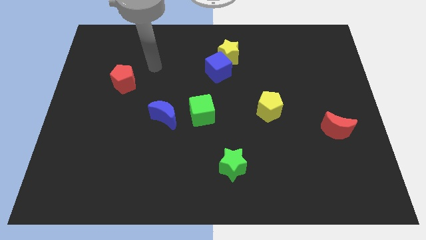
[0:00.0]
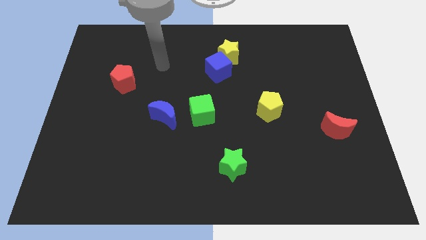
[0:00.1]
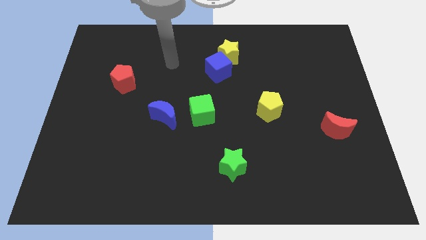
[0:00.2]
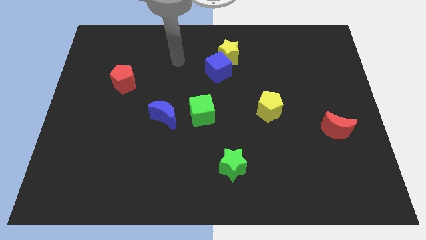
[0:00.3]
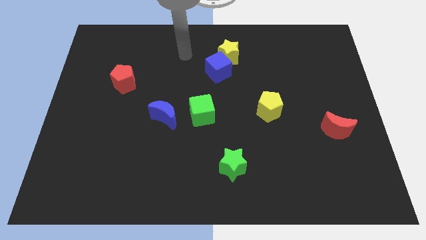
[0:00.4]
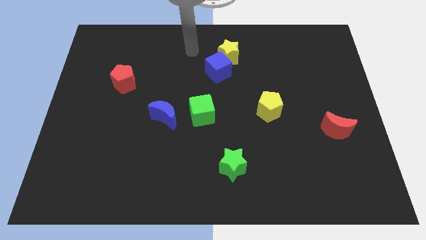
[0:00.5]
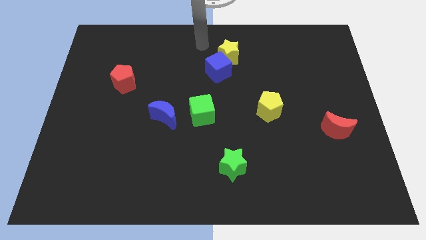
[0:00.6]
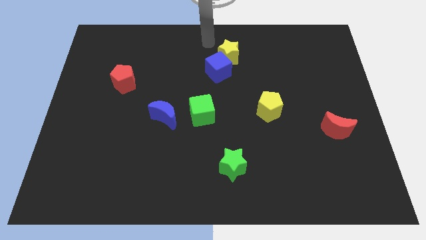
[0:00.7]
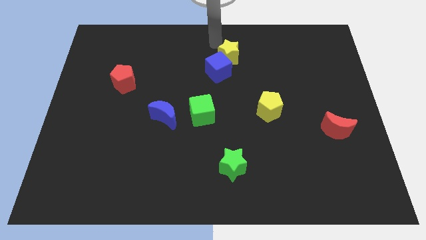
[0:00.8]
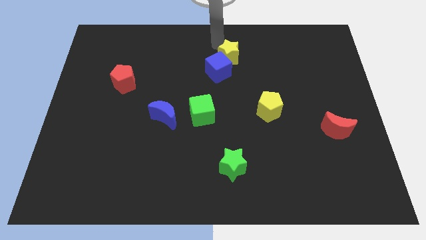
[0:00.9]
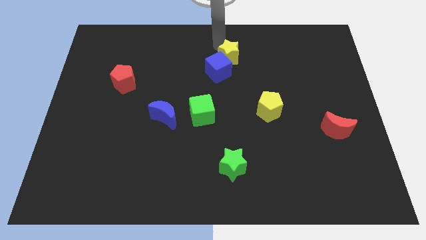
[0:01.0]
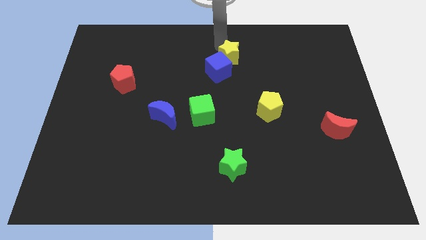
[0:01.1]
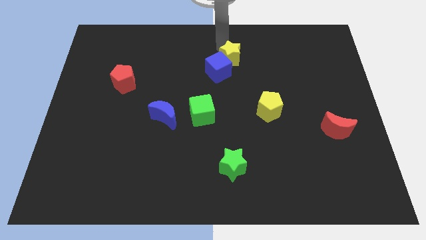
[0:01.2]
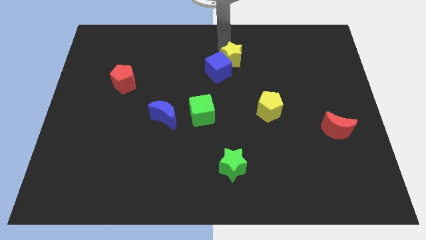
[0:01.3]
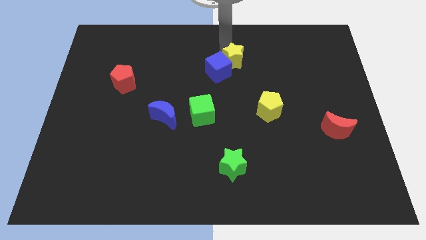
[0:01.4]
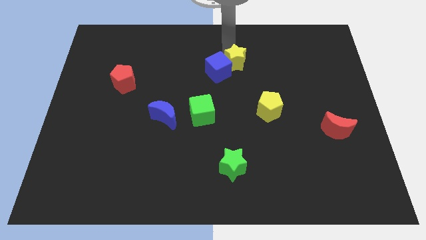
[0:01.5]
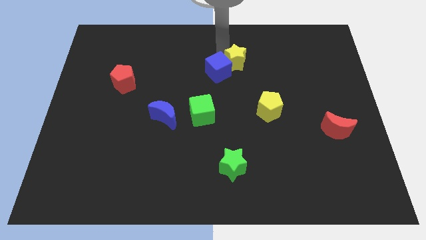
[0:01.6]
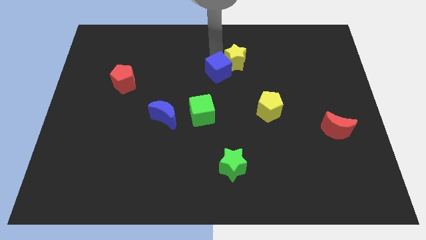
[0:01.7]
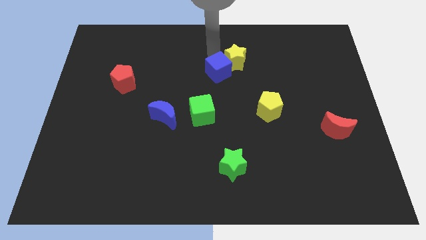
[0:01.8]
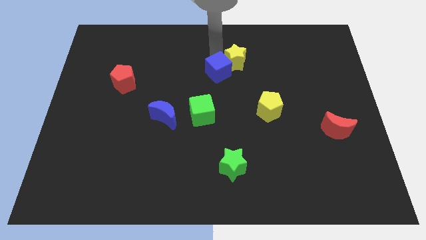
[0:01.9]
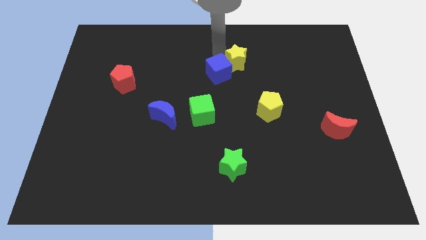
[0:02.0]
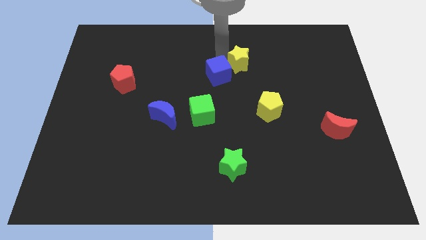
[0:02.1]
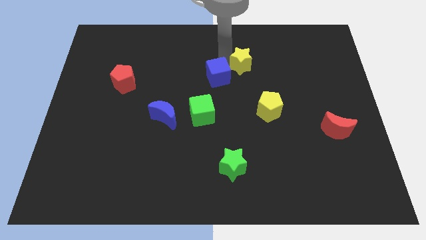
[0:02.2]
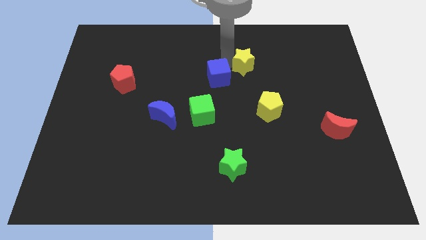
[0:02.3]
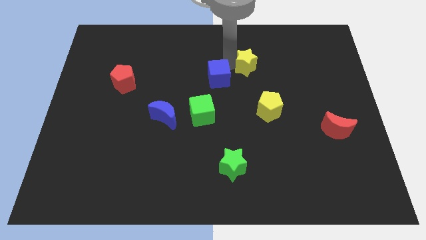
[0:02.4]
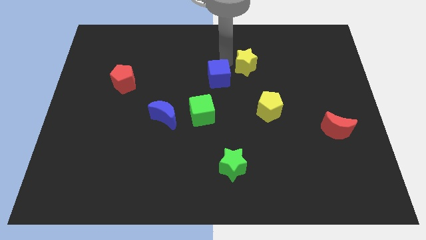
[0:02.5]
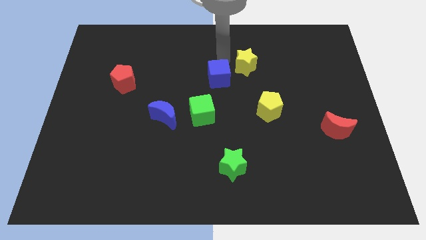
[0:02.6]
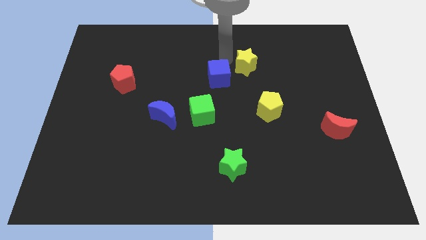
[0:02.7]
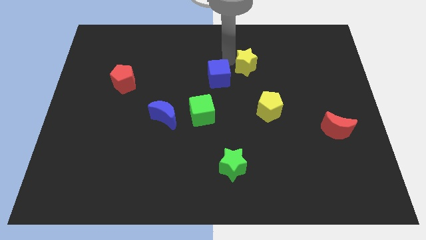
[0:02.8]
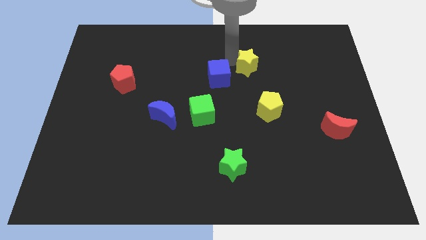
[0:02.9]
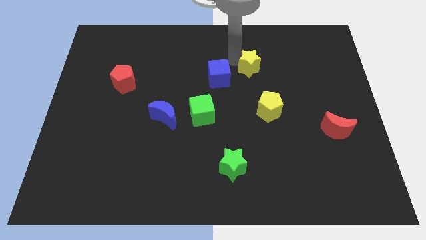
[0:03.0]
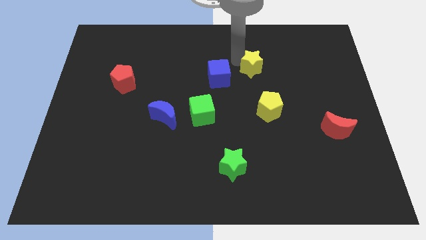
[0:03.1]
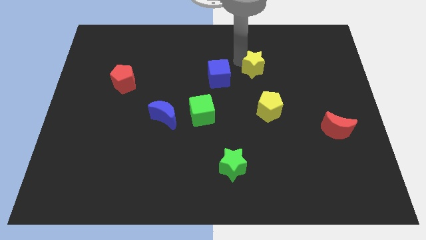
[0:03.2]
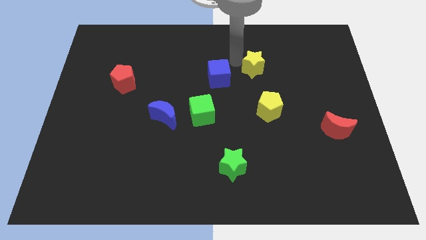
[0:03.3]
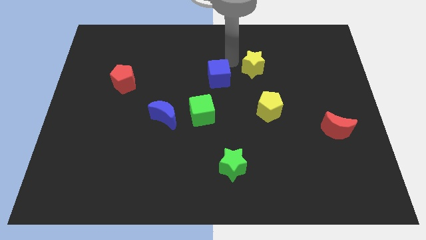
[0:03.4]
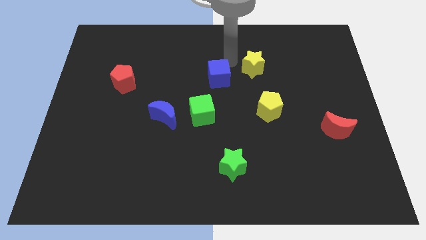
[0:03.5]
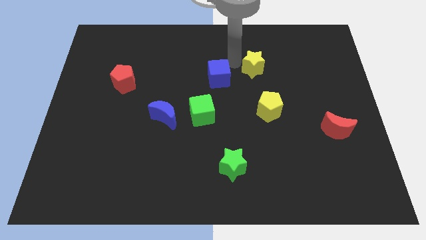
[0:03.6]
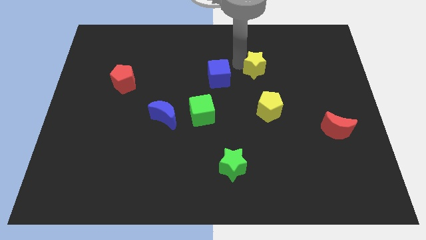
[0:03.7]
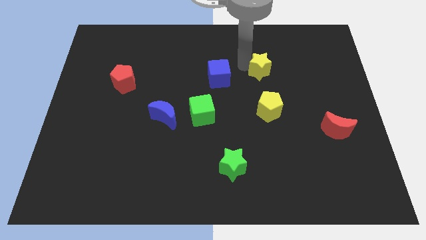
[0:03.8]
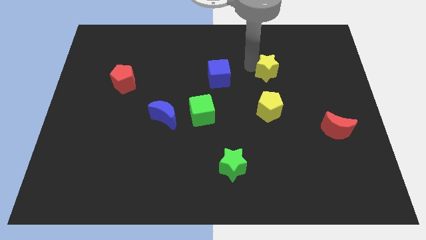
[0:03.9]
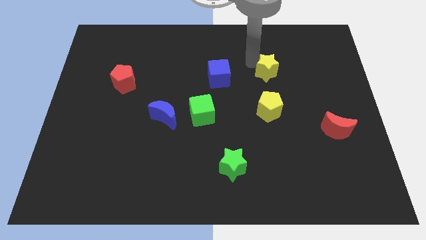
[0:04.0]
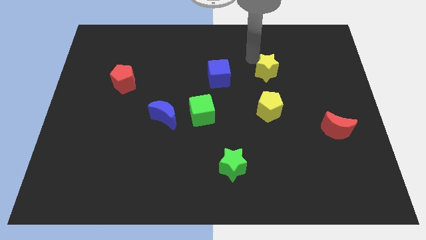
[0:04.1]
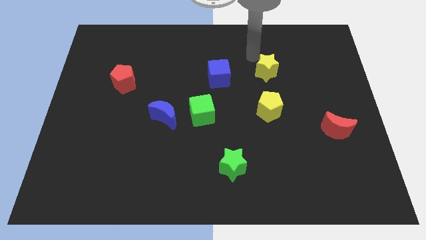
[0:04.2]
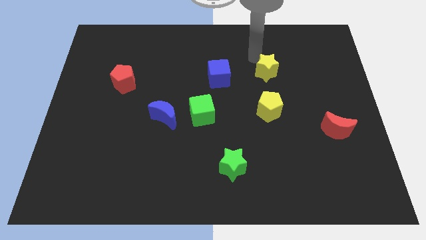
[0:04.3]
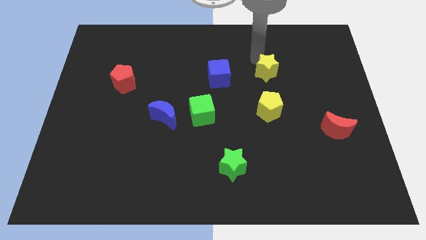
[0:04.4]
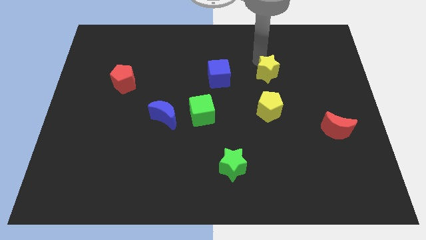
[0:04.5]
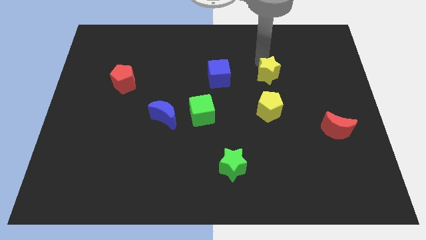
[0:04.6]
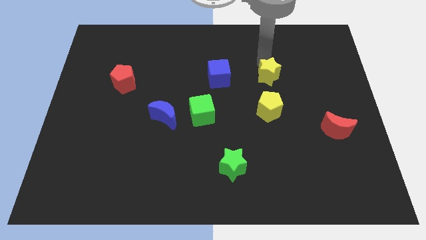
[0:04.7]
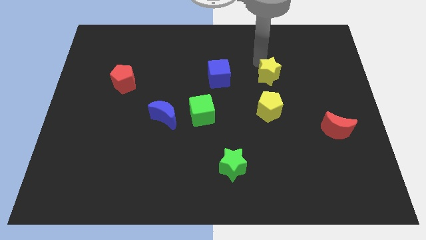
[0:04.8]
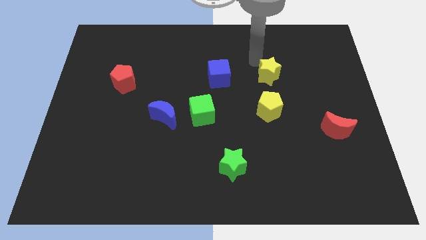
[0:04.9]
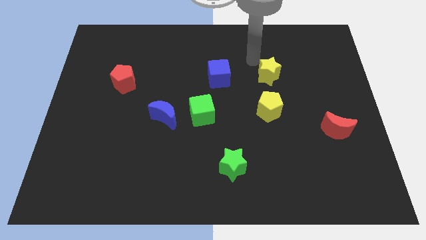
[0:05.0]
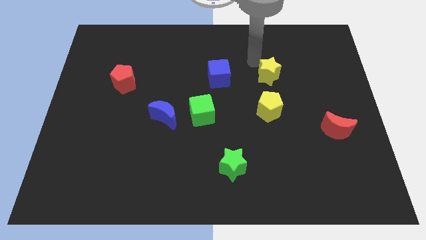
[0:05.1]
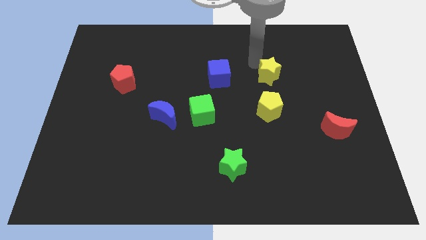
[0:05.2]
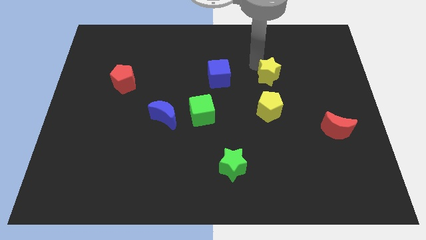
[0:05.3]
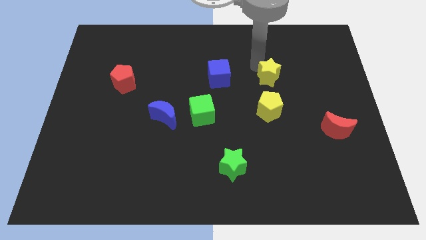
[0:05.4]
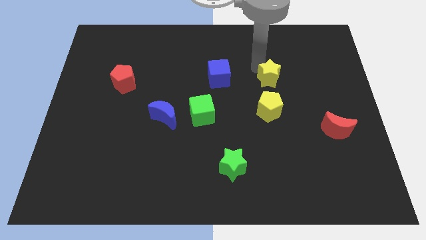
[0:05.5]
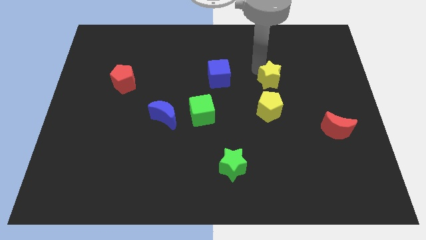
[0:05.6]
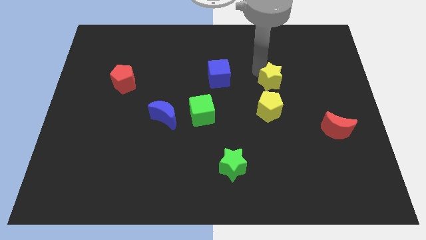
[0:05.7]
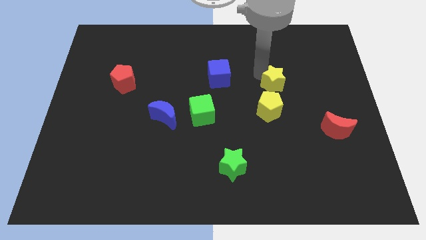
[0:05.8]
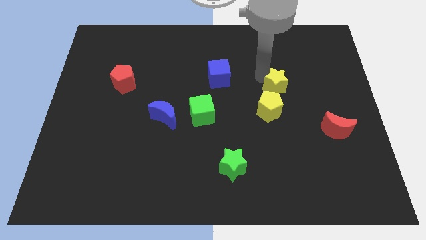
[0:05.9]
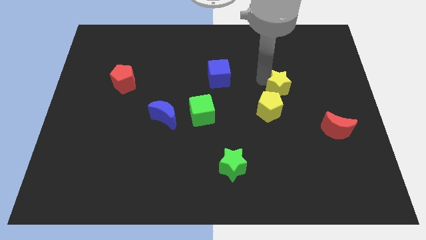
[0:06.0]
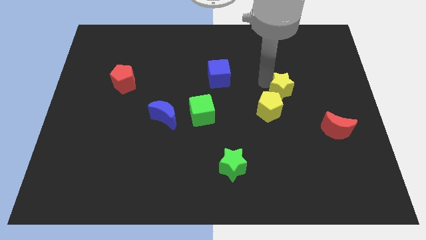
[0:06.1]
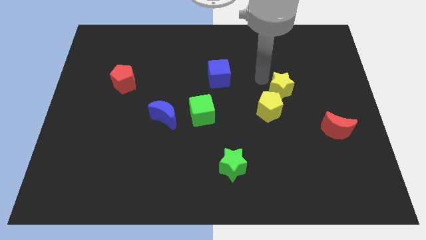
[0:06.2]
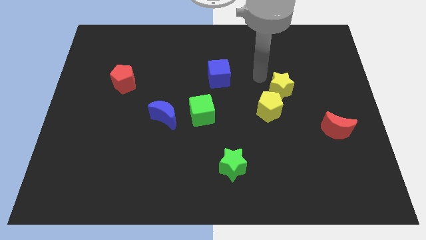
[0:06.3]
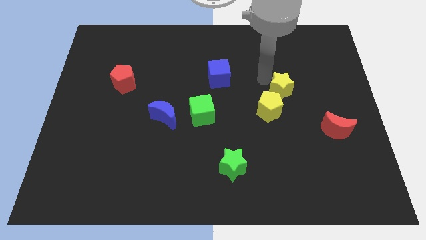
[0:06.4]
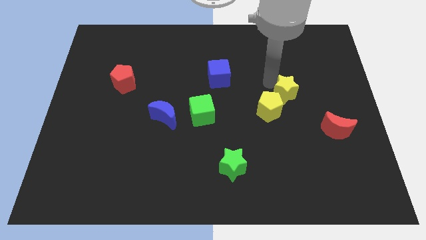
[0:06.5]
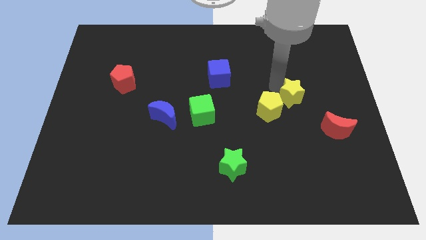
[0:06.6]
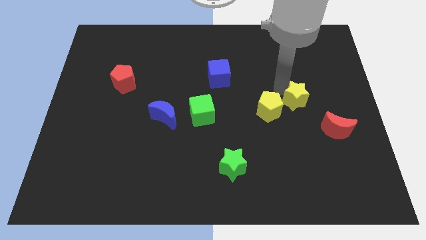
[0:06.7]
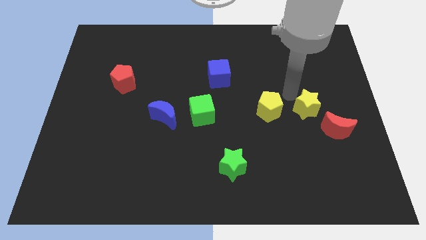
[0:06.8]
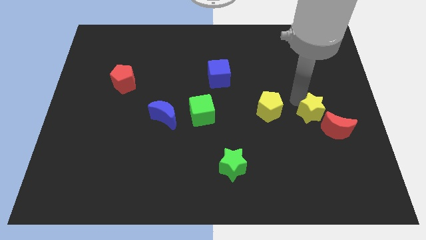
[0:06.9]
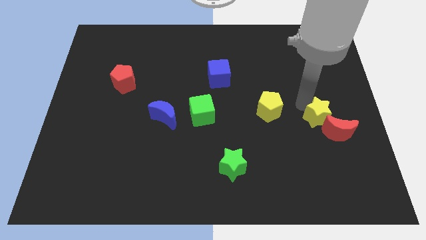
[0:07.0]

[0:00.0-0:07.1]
move the yellow star towards the red moon

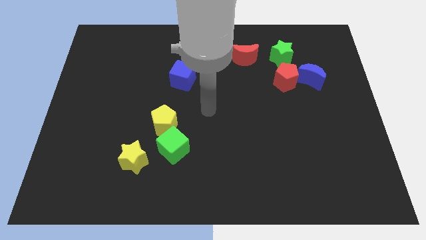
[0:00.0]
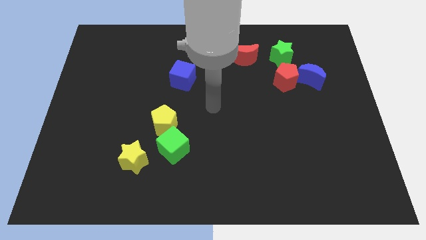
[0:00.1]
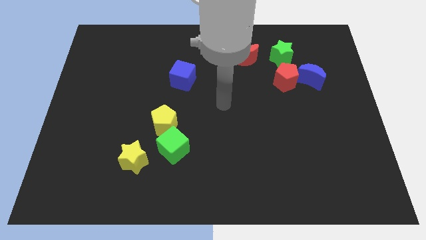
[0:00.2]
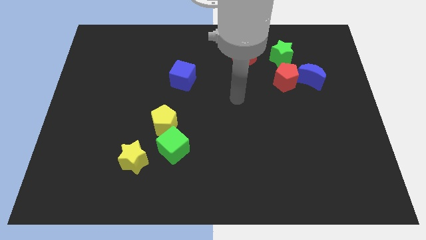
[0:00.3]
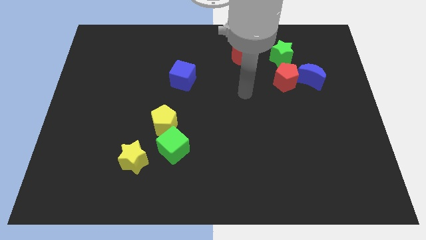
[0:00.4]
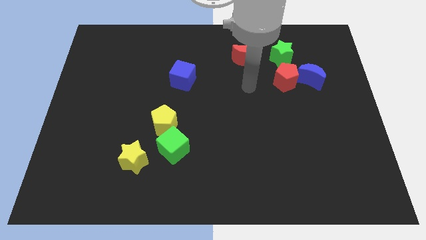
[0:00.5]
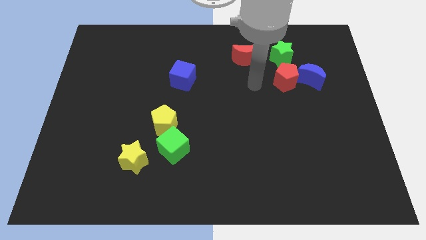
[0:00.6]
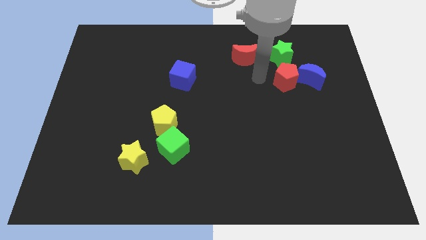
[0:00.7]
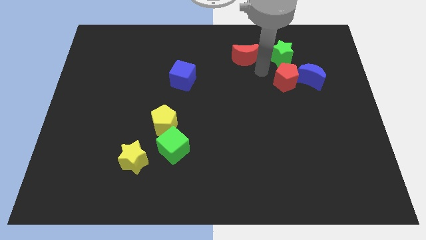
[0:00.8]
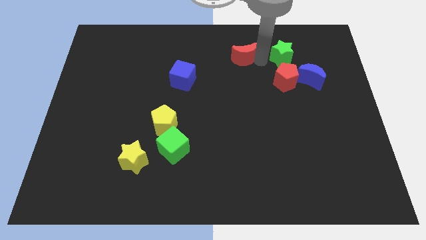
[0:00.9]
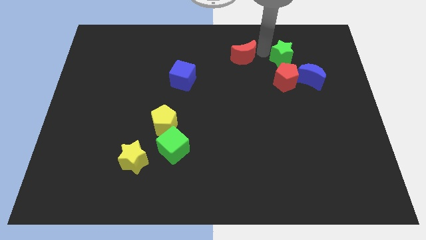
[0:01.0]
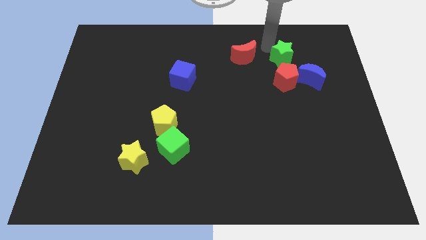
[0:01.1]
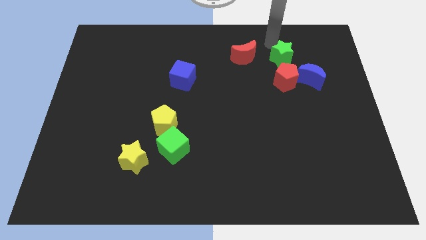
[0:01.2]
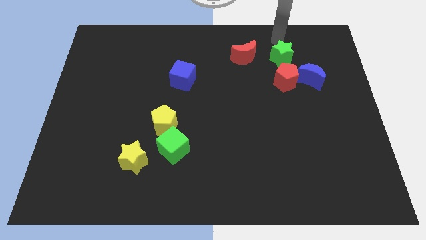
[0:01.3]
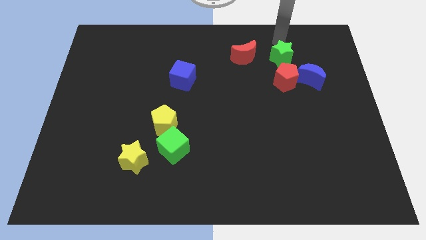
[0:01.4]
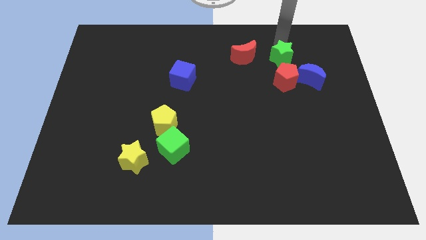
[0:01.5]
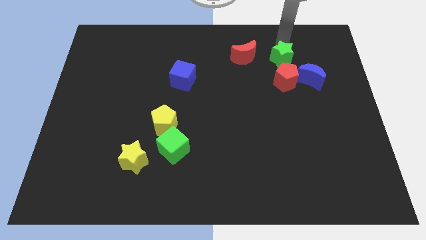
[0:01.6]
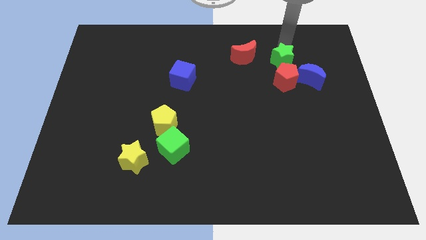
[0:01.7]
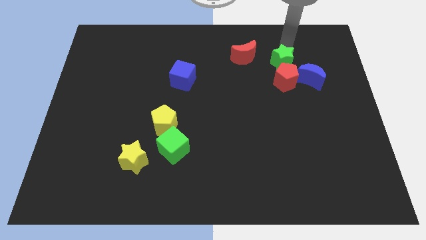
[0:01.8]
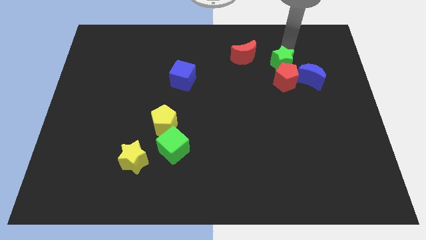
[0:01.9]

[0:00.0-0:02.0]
put the green star close to the red pentagon
